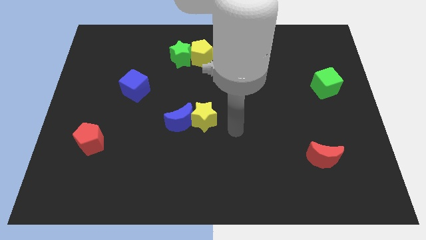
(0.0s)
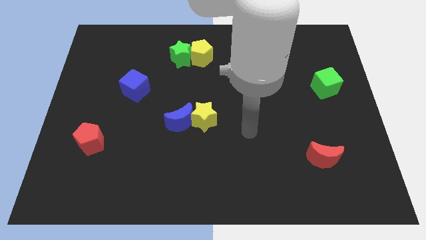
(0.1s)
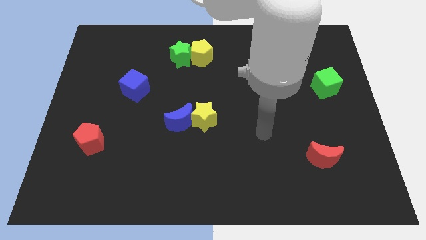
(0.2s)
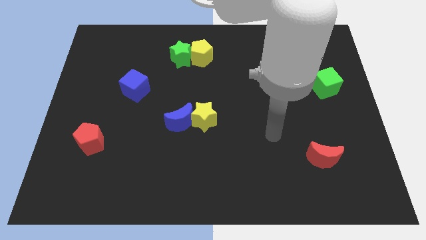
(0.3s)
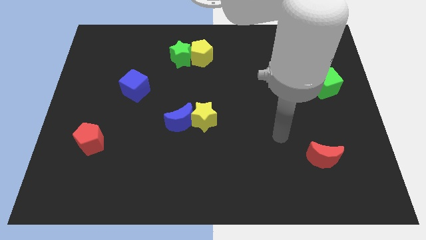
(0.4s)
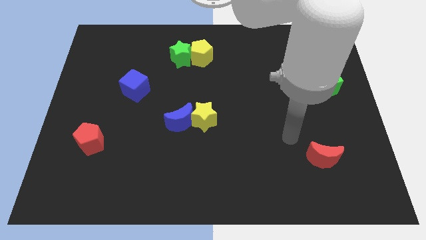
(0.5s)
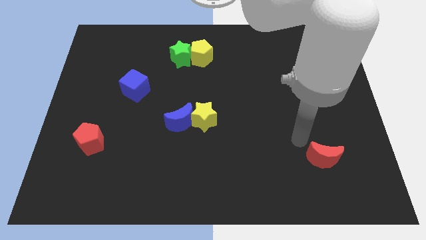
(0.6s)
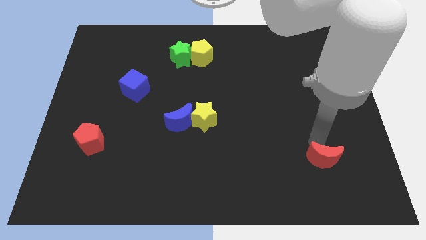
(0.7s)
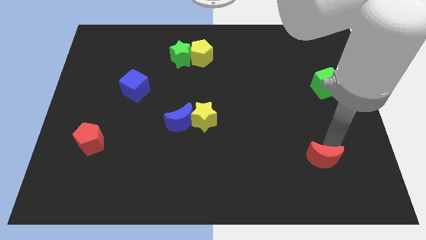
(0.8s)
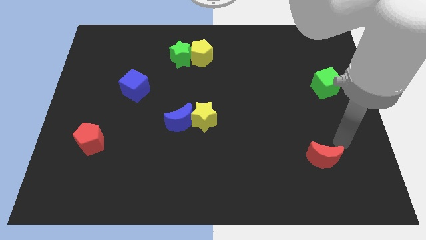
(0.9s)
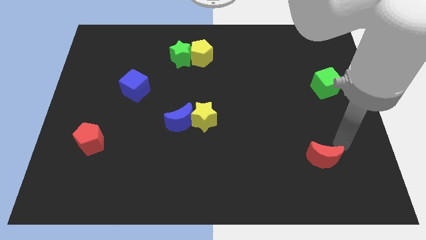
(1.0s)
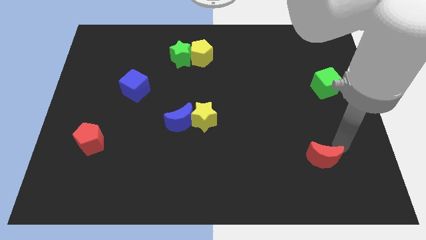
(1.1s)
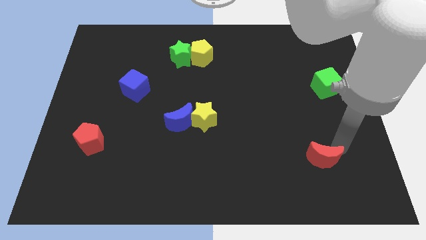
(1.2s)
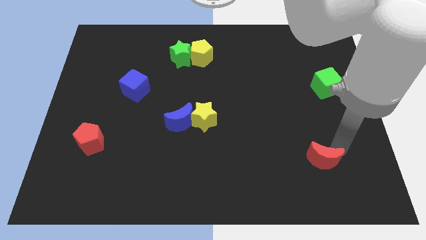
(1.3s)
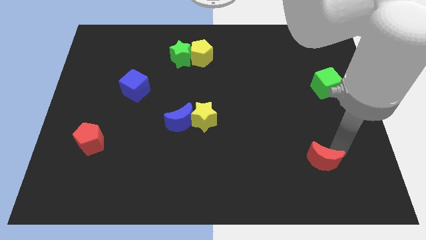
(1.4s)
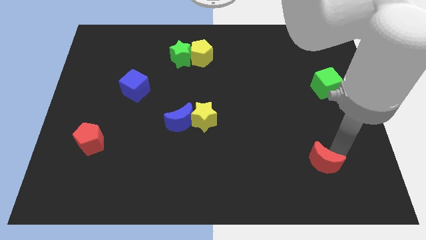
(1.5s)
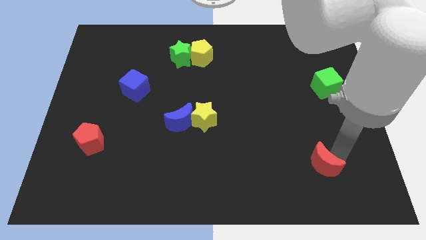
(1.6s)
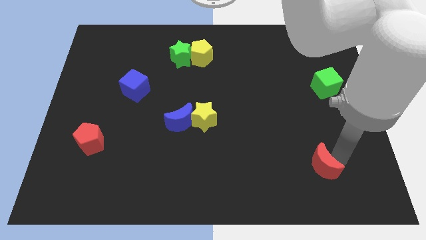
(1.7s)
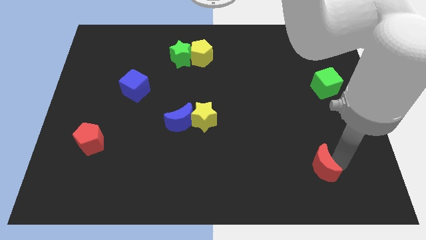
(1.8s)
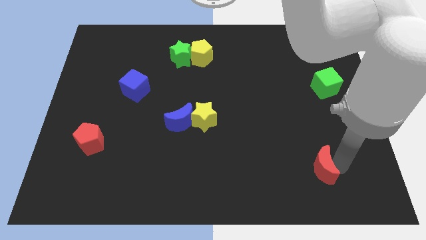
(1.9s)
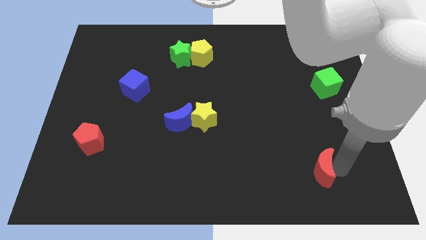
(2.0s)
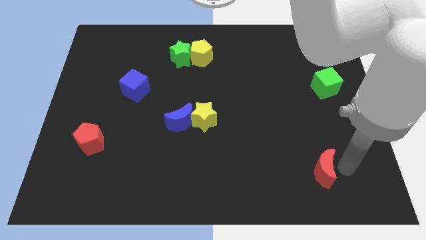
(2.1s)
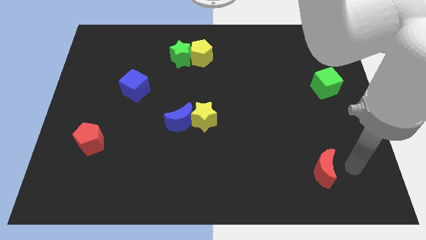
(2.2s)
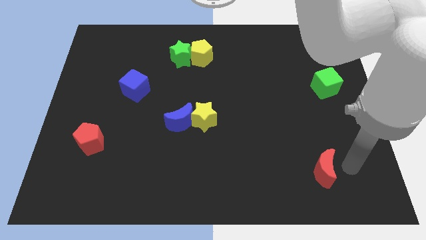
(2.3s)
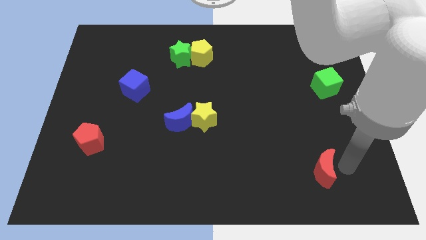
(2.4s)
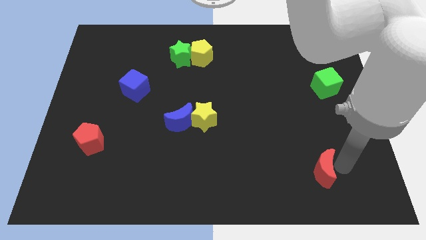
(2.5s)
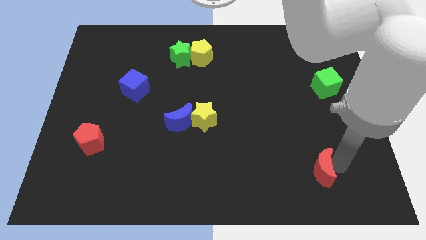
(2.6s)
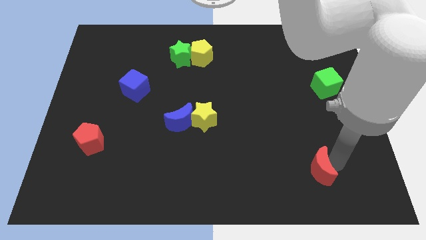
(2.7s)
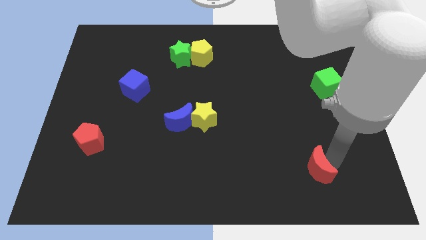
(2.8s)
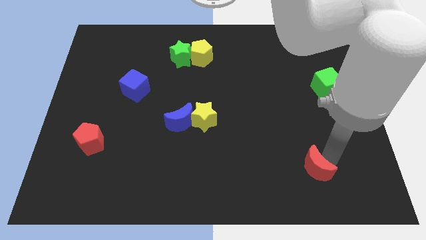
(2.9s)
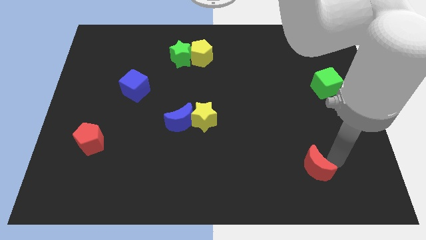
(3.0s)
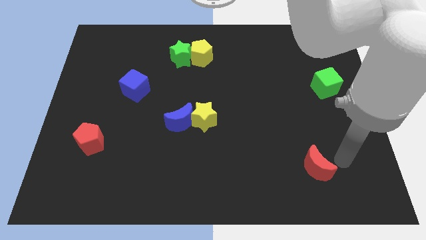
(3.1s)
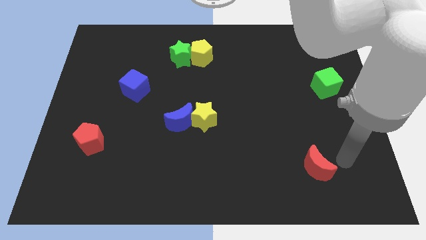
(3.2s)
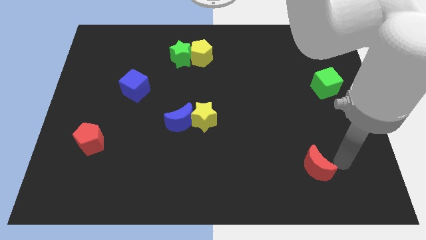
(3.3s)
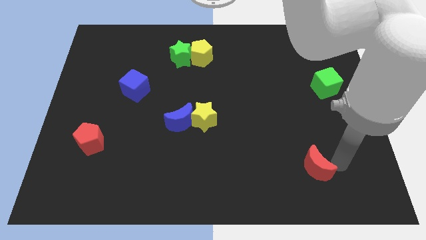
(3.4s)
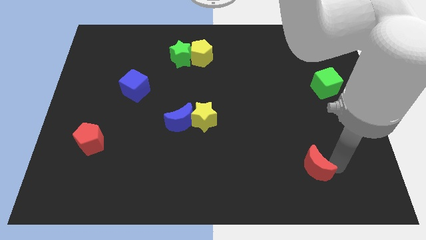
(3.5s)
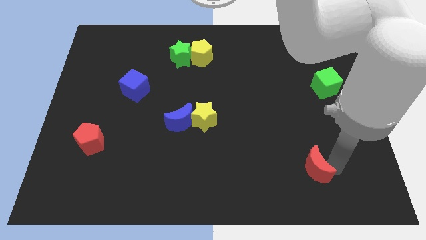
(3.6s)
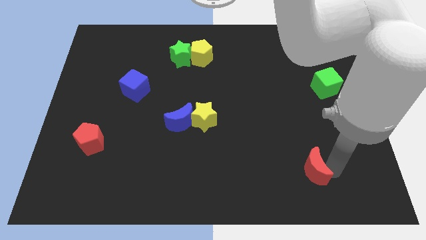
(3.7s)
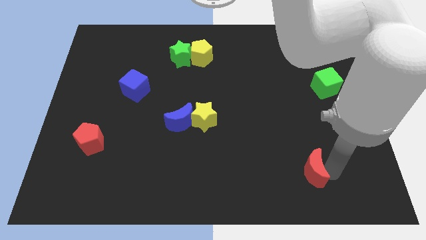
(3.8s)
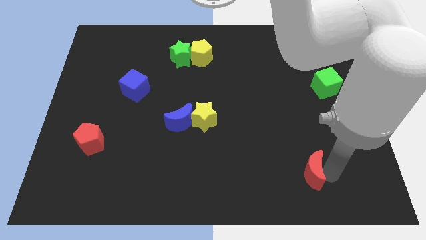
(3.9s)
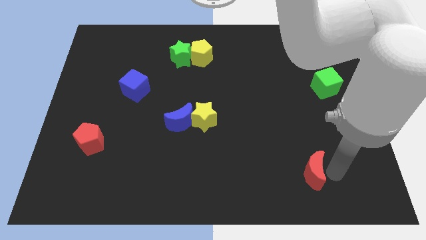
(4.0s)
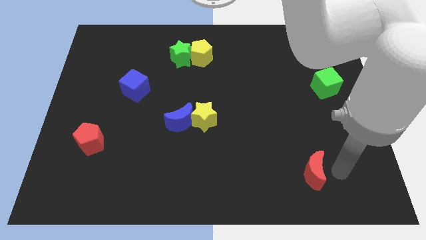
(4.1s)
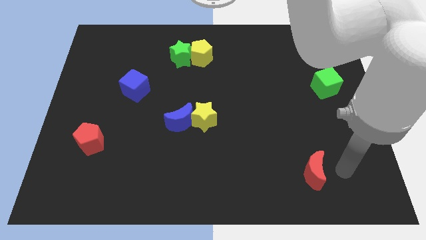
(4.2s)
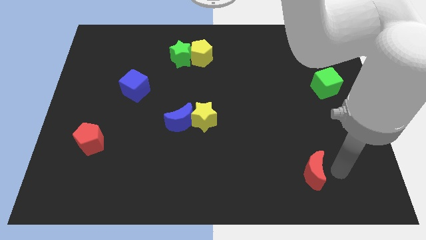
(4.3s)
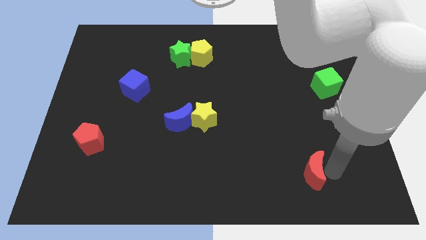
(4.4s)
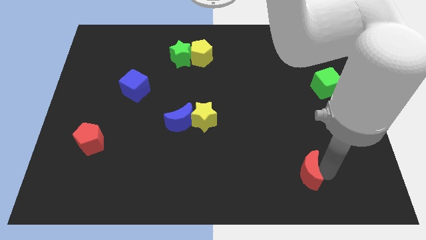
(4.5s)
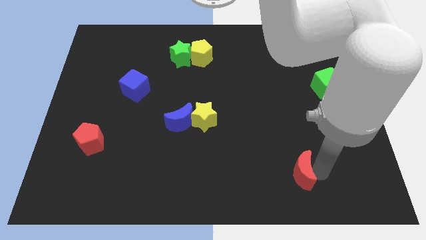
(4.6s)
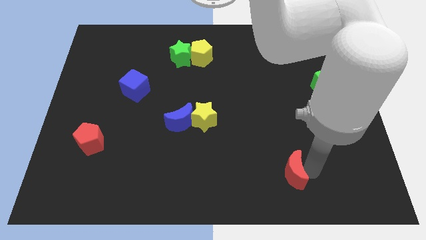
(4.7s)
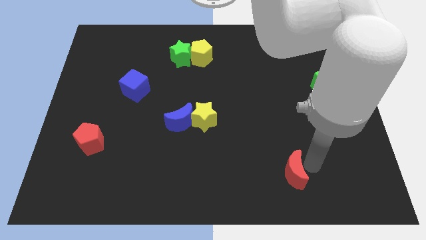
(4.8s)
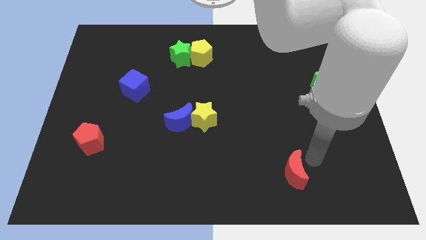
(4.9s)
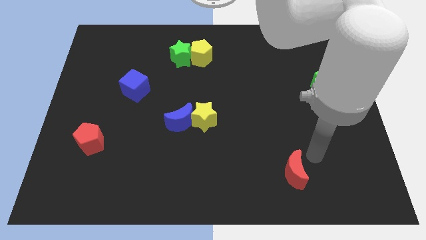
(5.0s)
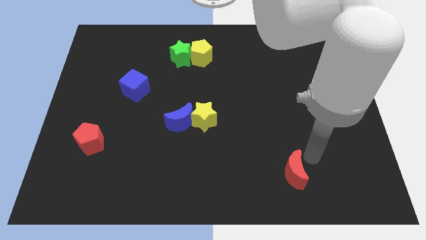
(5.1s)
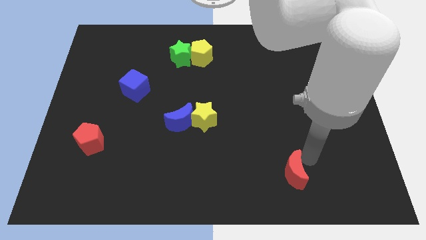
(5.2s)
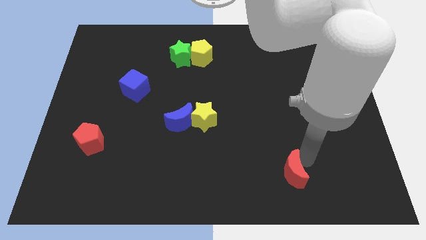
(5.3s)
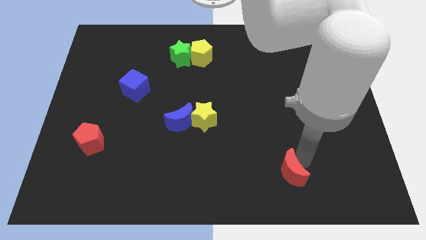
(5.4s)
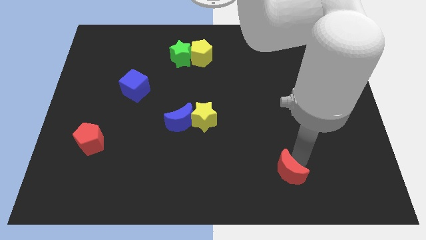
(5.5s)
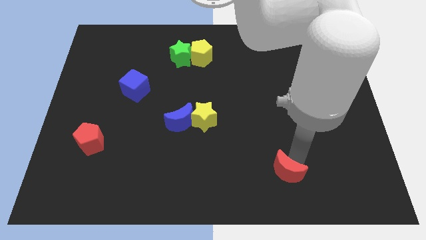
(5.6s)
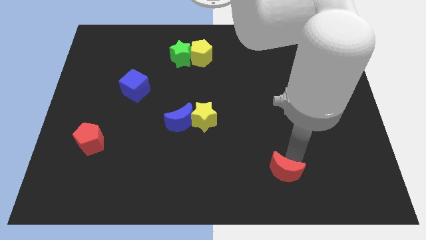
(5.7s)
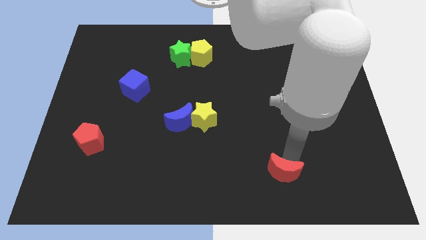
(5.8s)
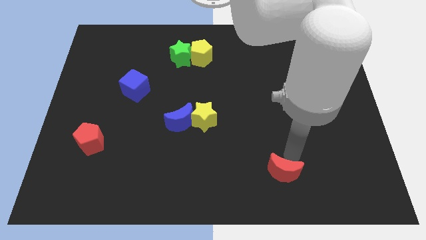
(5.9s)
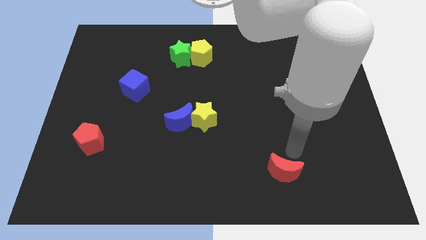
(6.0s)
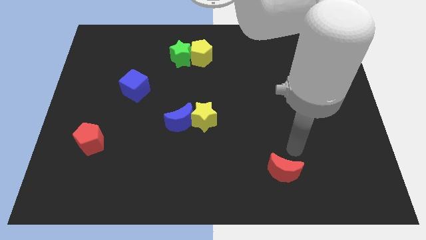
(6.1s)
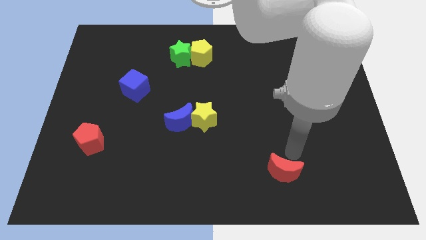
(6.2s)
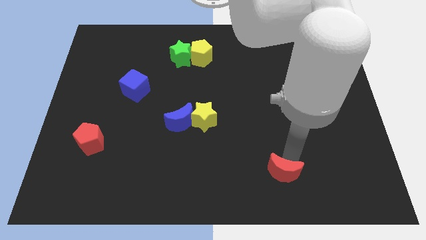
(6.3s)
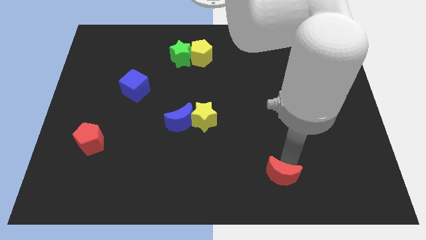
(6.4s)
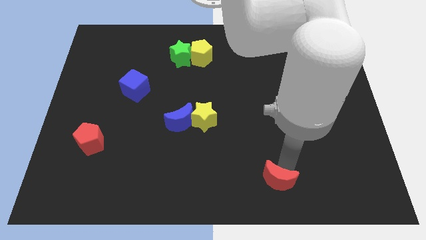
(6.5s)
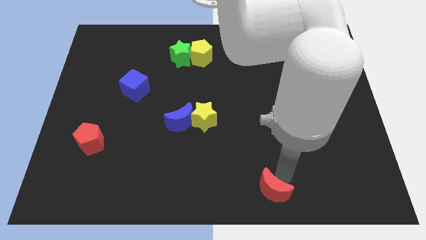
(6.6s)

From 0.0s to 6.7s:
push the red moon to the bottom
